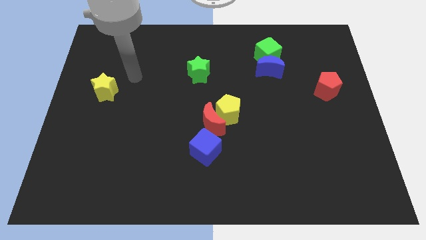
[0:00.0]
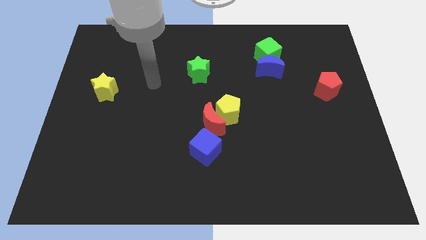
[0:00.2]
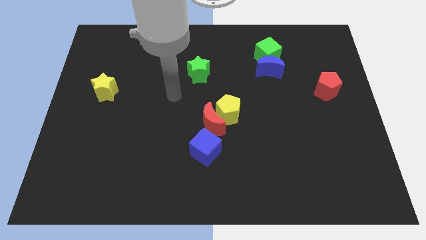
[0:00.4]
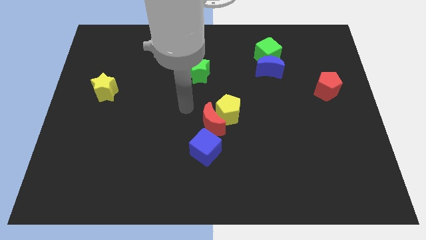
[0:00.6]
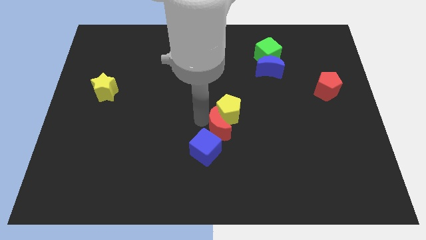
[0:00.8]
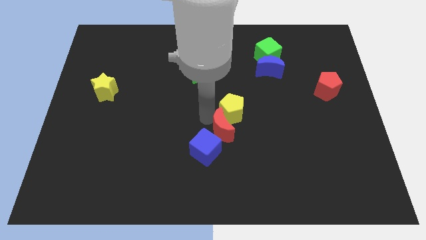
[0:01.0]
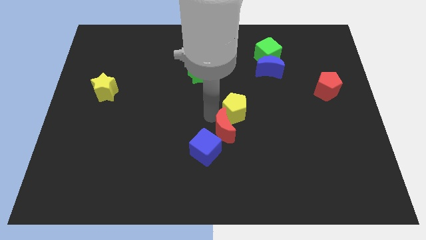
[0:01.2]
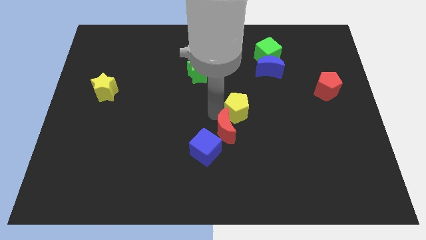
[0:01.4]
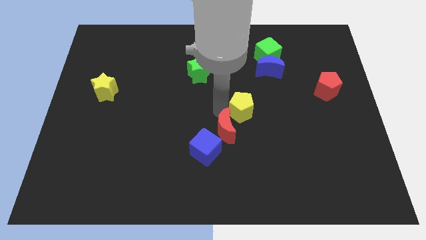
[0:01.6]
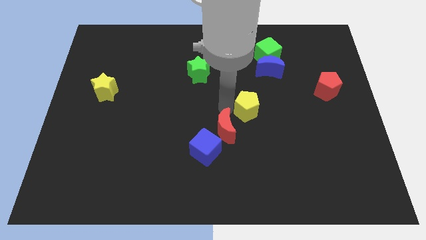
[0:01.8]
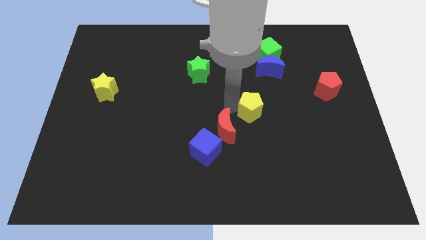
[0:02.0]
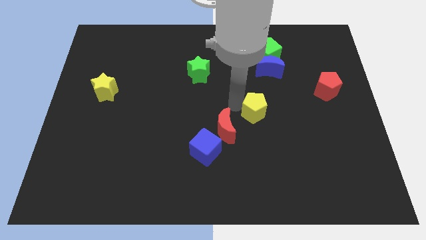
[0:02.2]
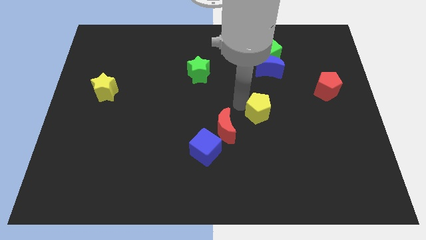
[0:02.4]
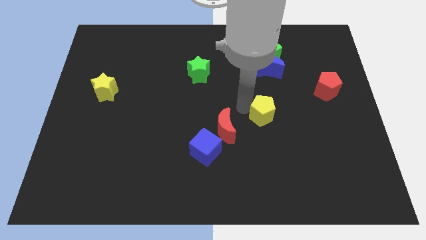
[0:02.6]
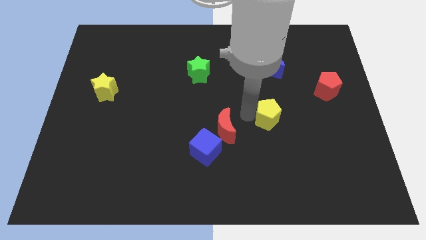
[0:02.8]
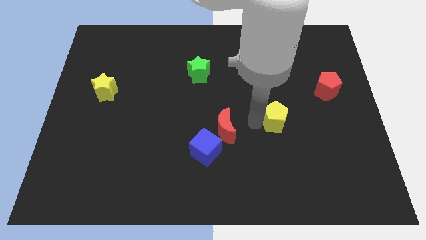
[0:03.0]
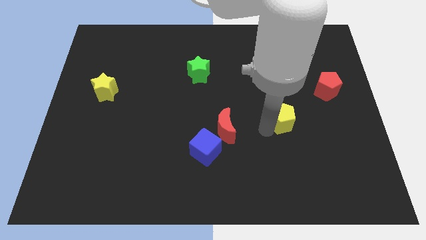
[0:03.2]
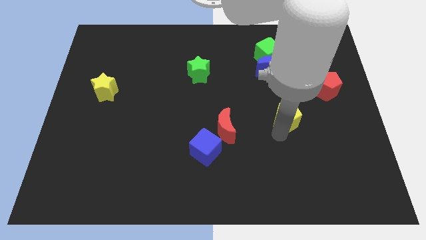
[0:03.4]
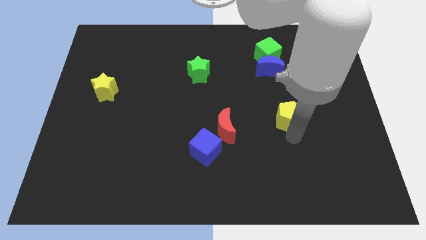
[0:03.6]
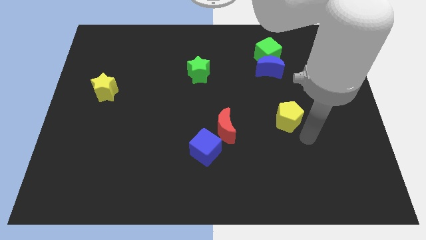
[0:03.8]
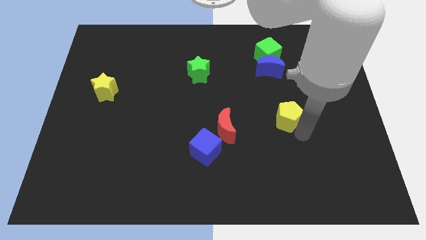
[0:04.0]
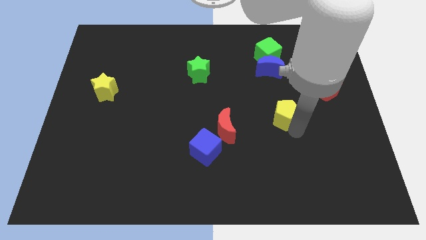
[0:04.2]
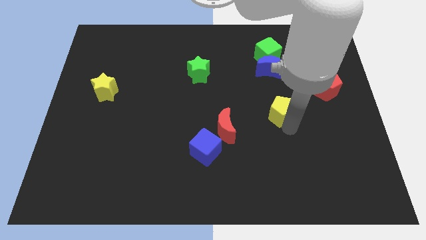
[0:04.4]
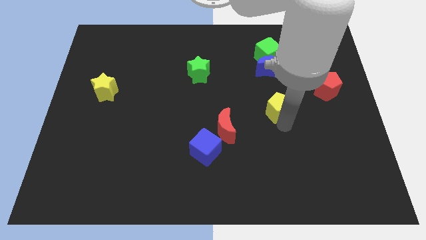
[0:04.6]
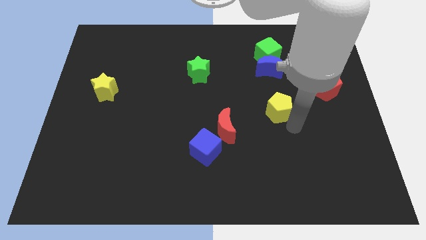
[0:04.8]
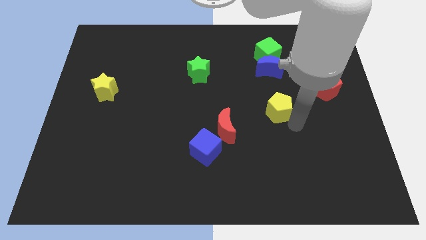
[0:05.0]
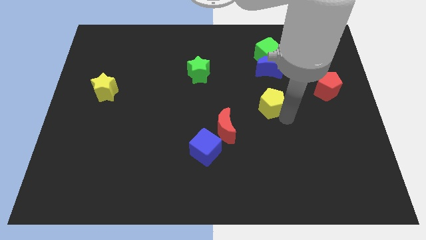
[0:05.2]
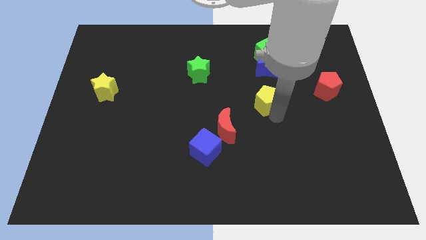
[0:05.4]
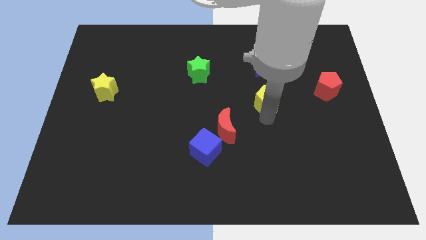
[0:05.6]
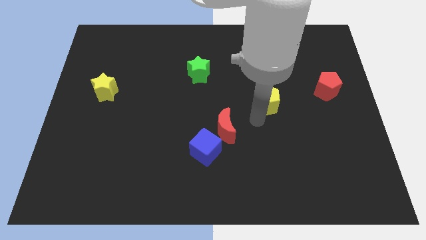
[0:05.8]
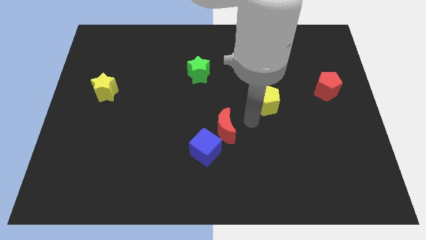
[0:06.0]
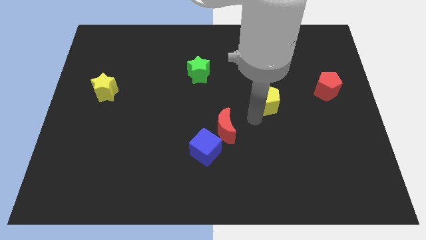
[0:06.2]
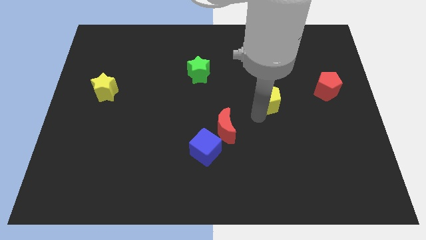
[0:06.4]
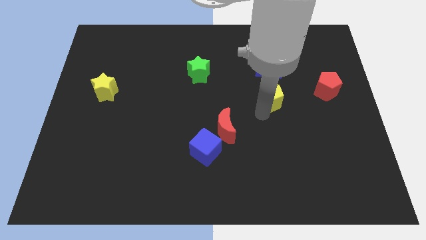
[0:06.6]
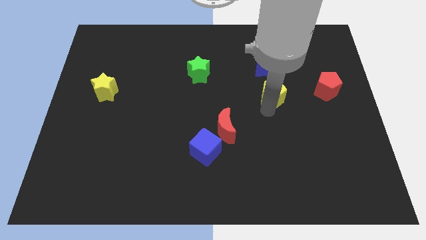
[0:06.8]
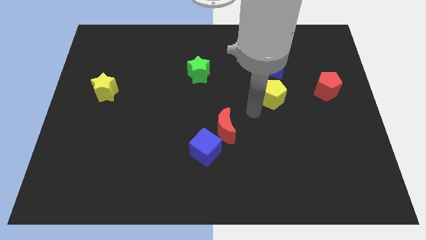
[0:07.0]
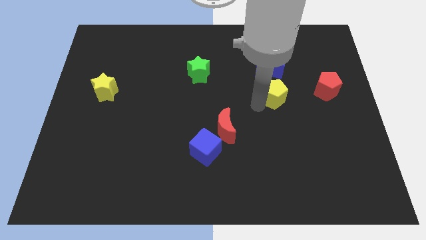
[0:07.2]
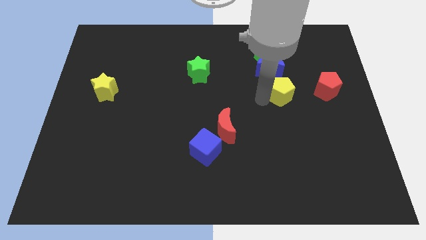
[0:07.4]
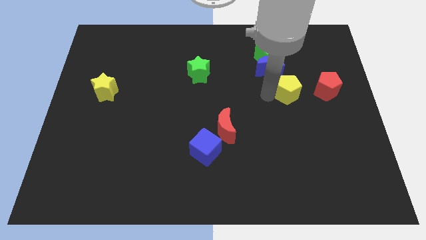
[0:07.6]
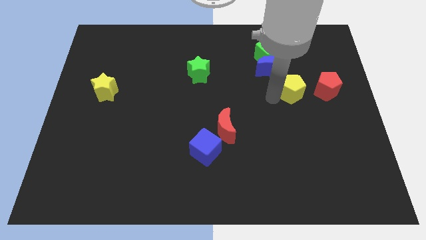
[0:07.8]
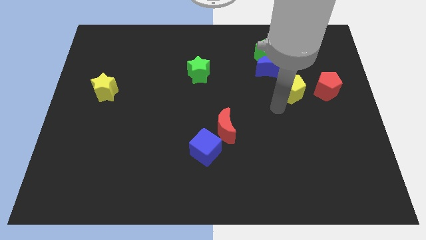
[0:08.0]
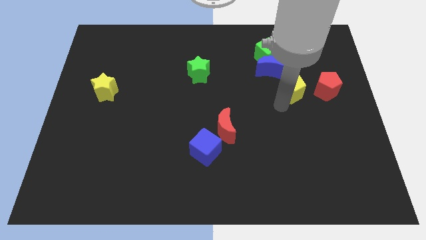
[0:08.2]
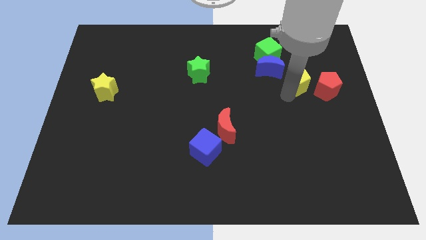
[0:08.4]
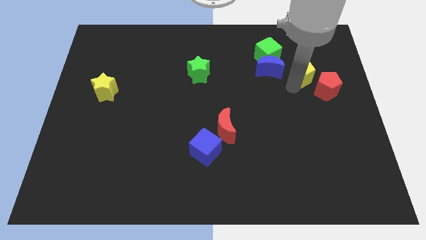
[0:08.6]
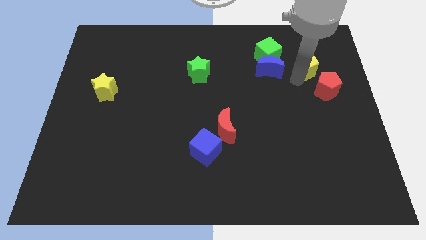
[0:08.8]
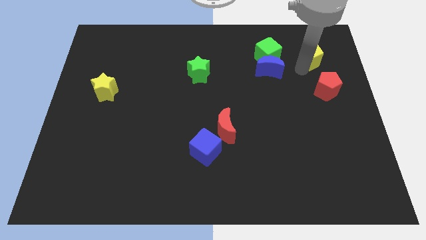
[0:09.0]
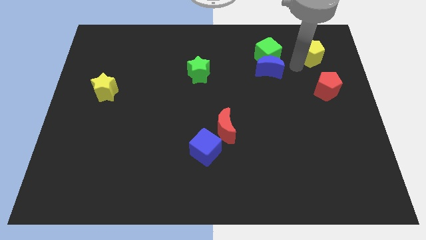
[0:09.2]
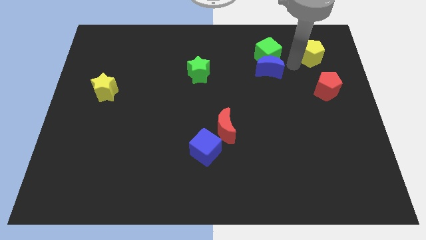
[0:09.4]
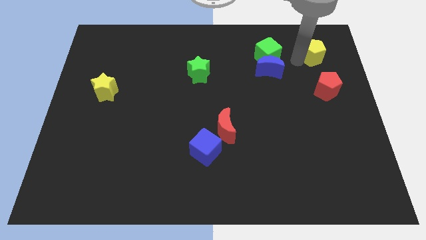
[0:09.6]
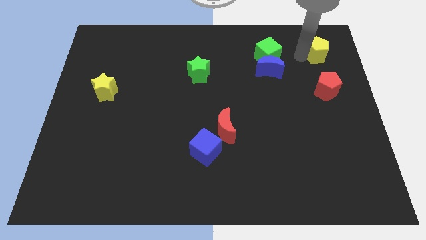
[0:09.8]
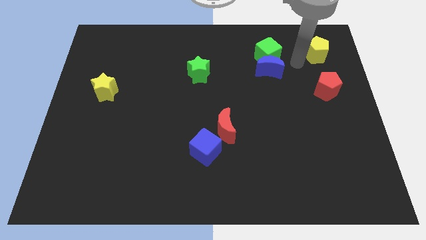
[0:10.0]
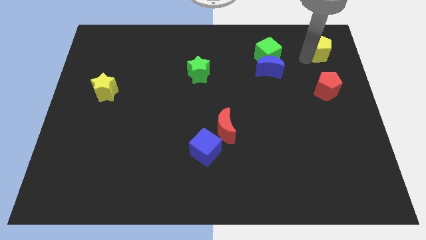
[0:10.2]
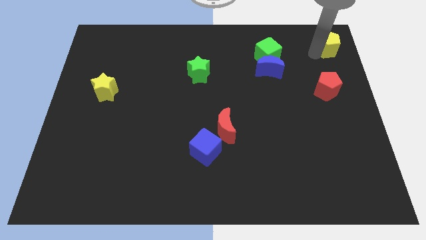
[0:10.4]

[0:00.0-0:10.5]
move the yellow pentagon to the top right
